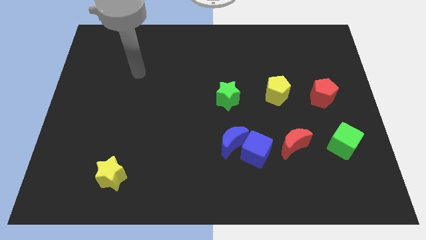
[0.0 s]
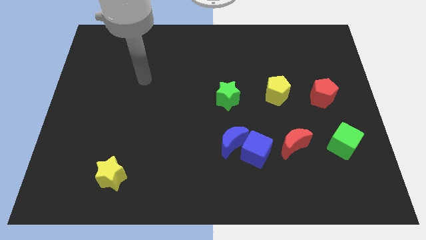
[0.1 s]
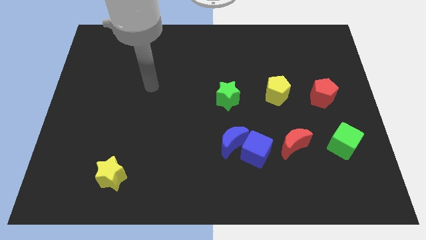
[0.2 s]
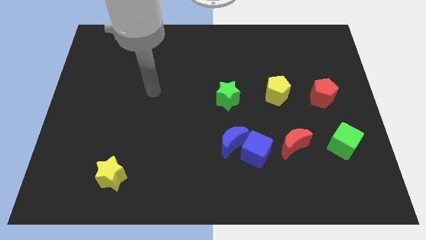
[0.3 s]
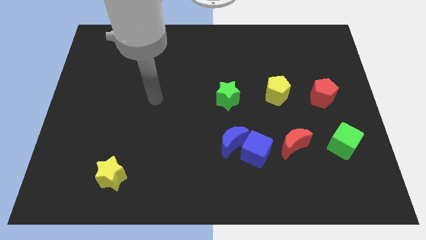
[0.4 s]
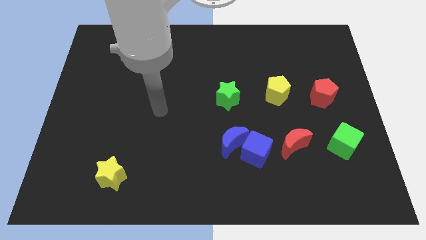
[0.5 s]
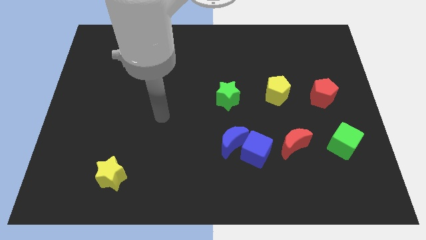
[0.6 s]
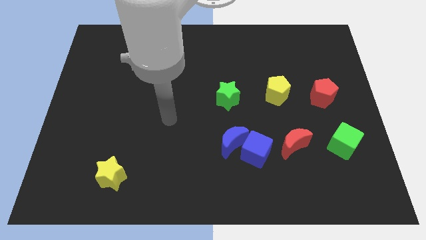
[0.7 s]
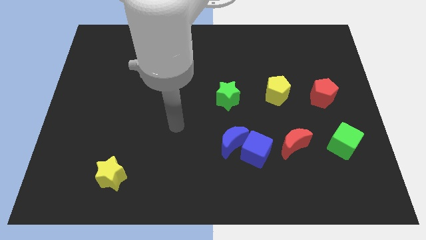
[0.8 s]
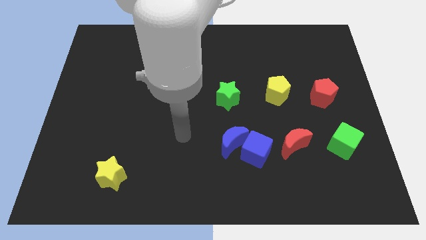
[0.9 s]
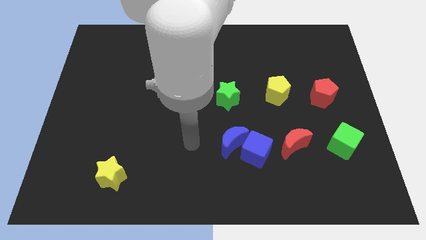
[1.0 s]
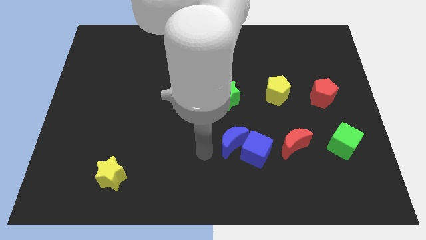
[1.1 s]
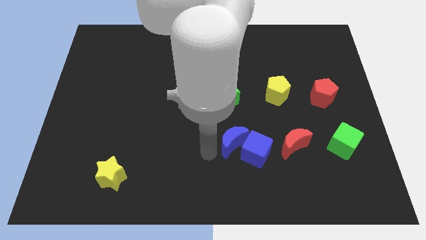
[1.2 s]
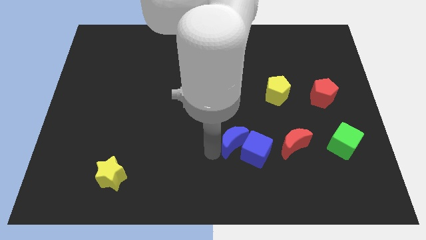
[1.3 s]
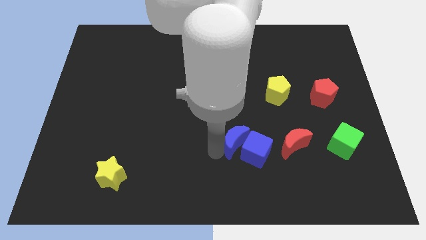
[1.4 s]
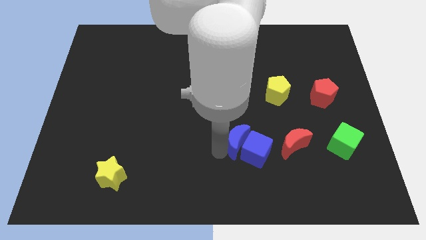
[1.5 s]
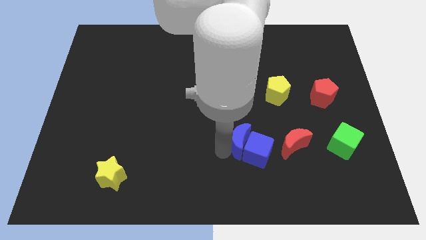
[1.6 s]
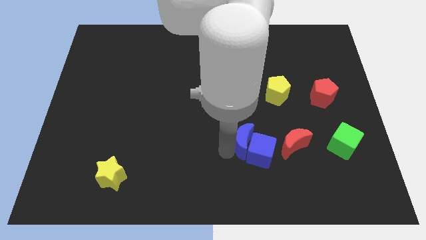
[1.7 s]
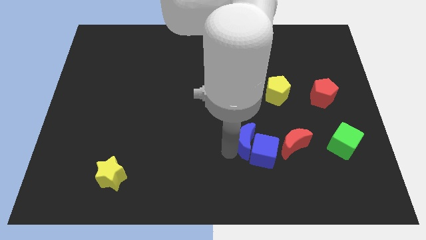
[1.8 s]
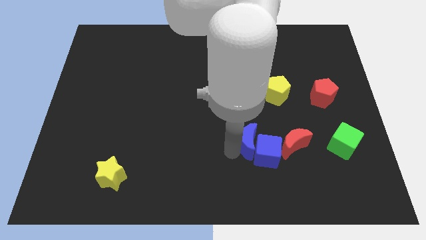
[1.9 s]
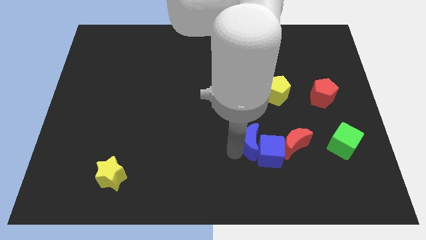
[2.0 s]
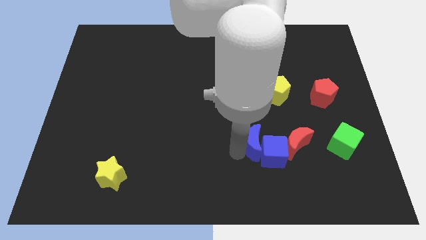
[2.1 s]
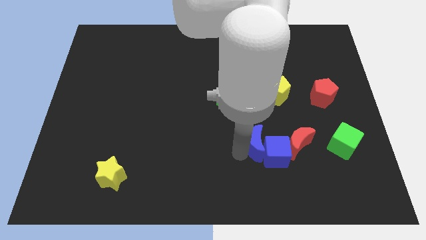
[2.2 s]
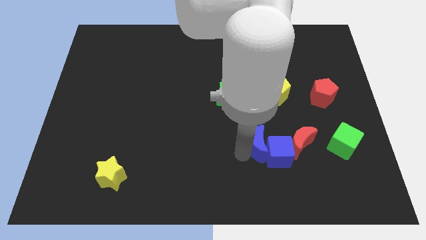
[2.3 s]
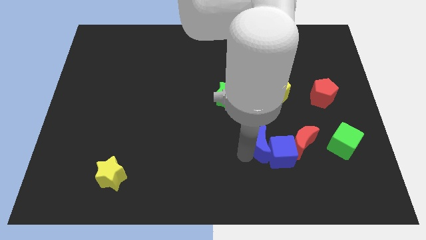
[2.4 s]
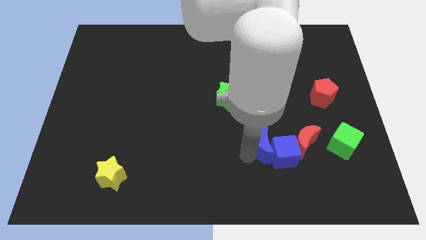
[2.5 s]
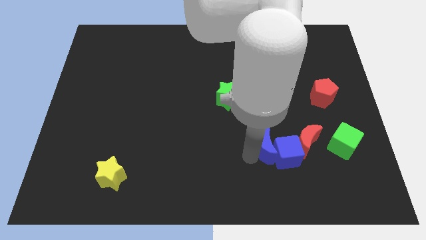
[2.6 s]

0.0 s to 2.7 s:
slide the blue moon right a little bit

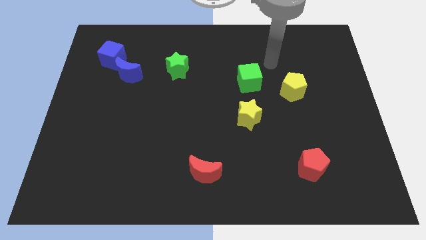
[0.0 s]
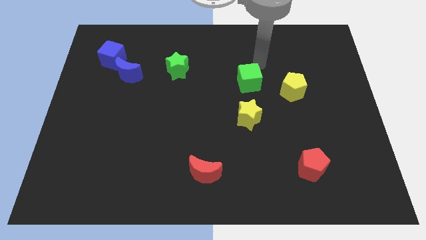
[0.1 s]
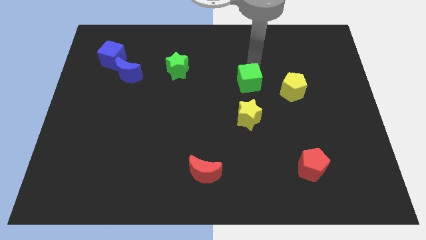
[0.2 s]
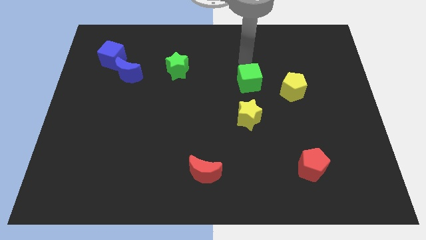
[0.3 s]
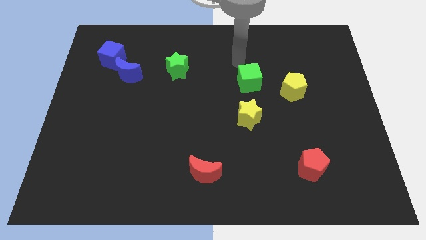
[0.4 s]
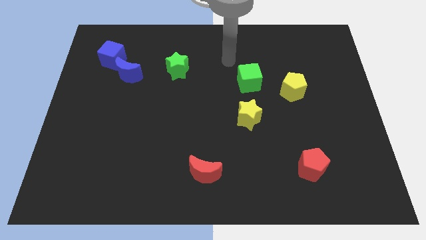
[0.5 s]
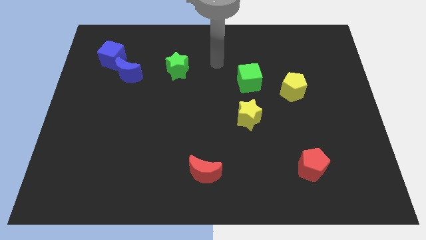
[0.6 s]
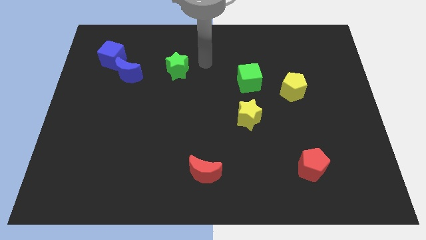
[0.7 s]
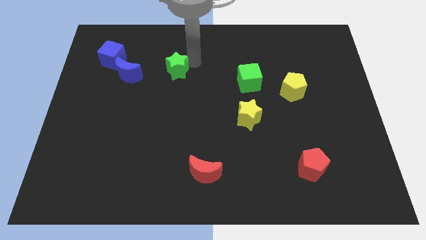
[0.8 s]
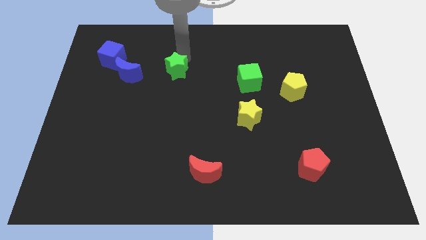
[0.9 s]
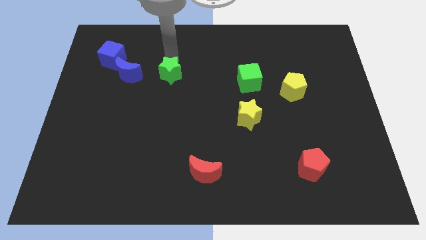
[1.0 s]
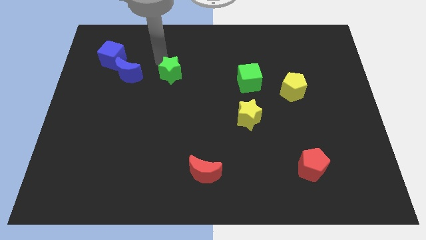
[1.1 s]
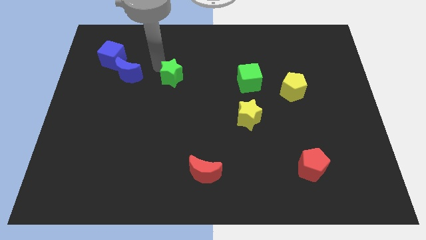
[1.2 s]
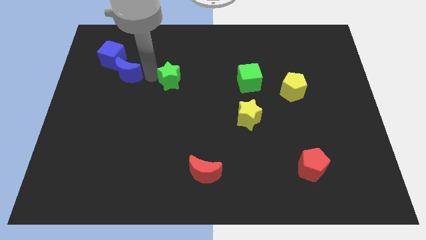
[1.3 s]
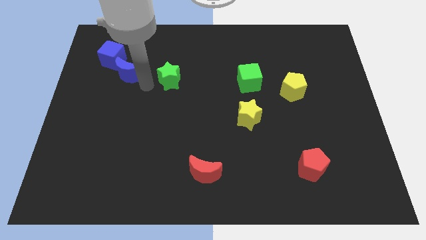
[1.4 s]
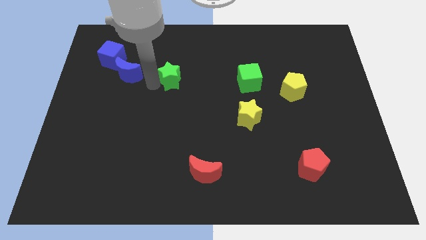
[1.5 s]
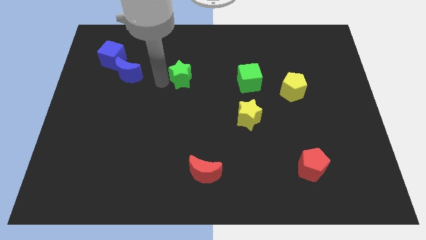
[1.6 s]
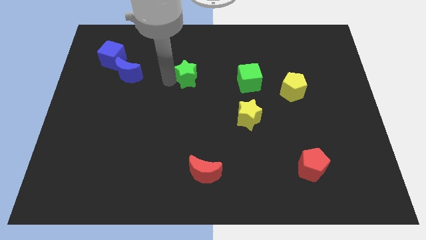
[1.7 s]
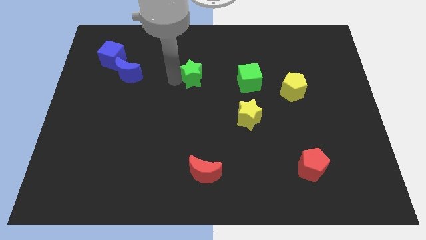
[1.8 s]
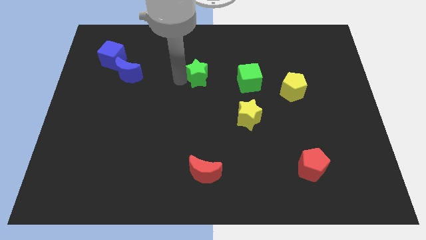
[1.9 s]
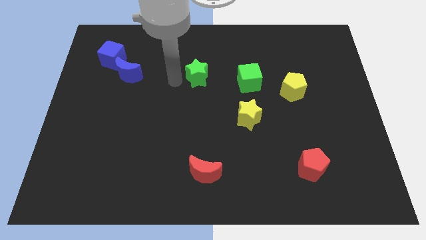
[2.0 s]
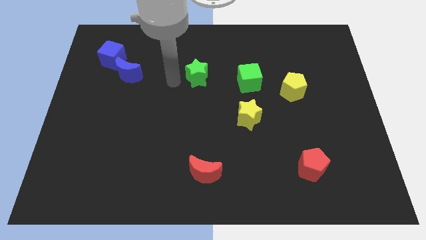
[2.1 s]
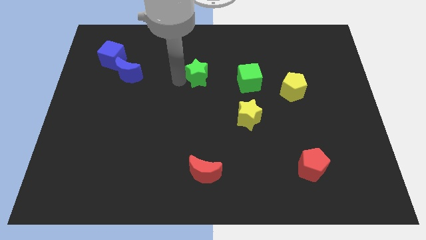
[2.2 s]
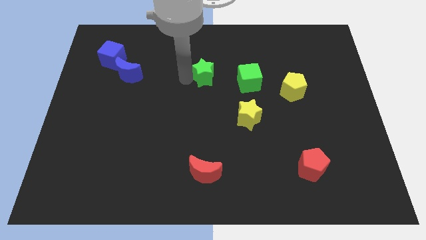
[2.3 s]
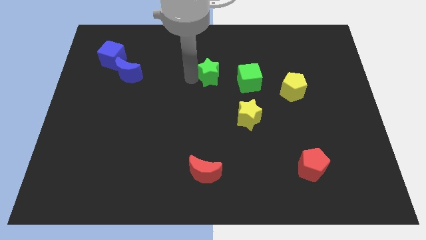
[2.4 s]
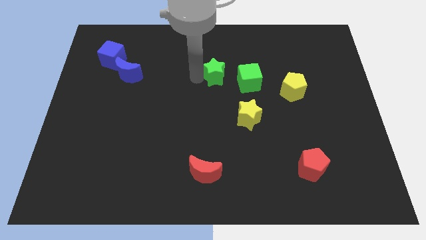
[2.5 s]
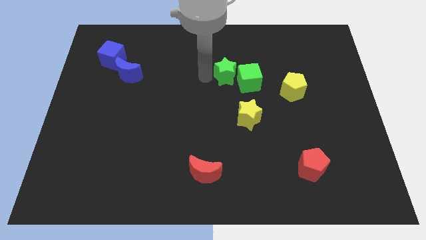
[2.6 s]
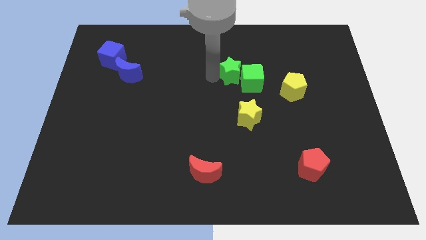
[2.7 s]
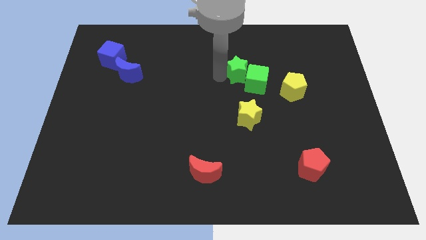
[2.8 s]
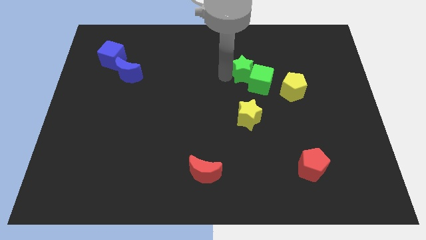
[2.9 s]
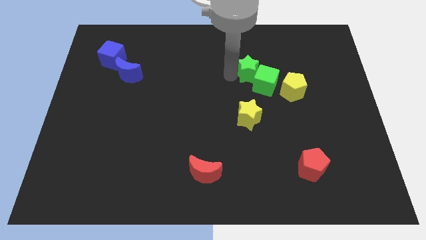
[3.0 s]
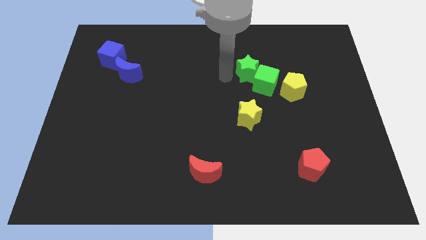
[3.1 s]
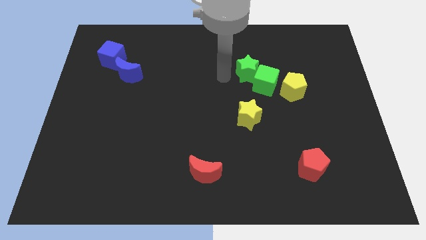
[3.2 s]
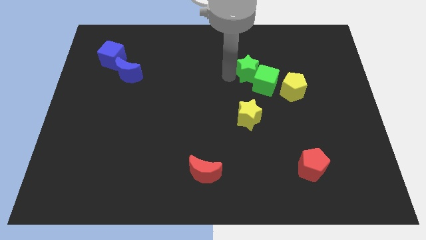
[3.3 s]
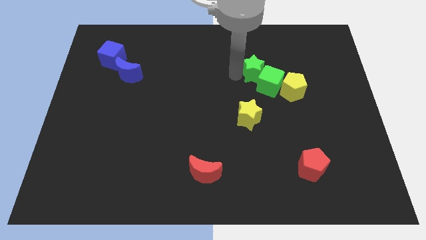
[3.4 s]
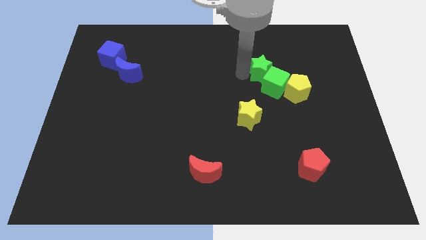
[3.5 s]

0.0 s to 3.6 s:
push the green star right

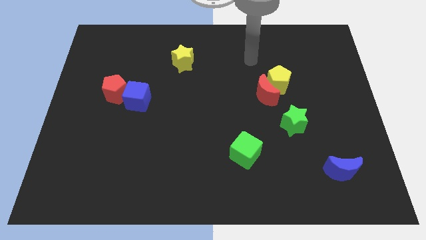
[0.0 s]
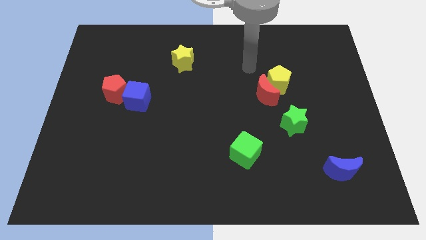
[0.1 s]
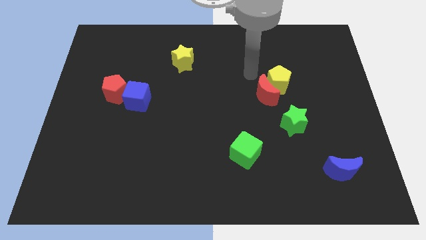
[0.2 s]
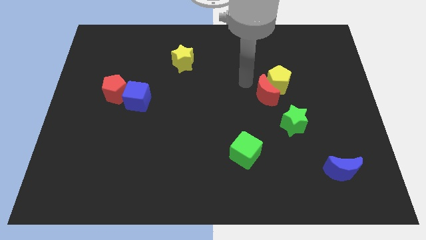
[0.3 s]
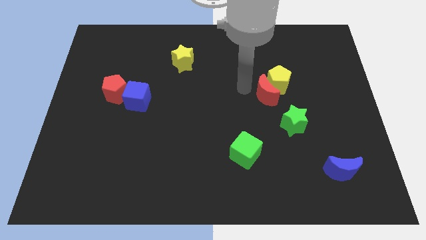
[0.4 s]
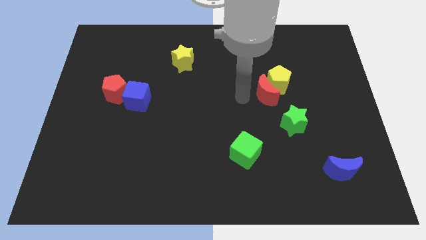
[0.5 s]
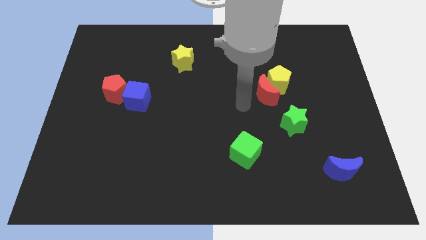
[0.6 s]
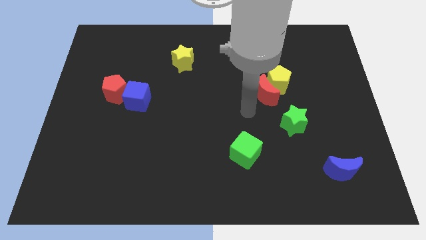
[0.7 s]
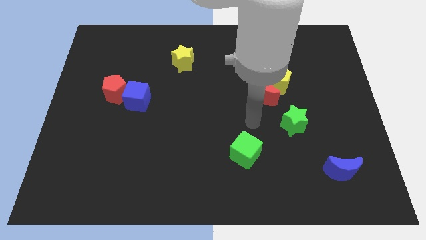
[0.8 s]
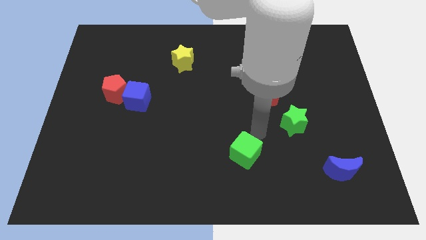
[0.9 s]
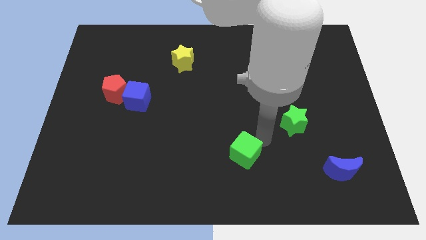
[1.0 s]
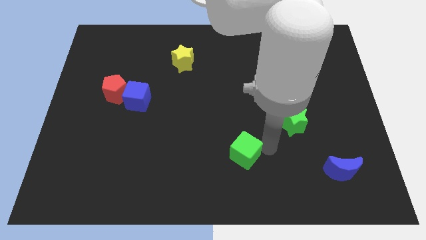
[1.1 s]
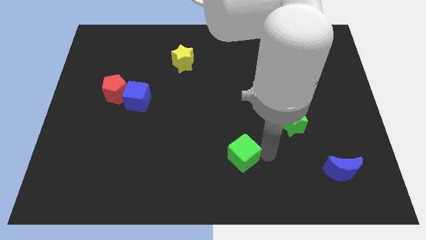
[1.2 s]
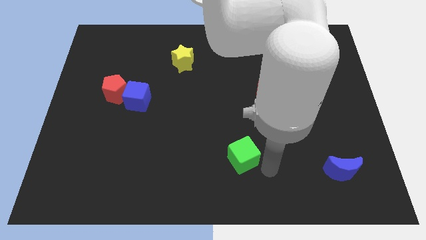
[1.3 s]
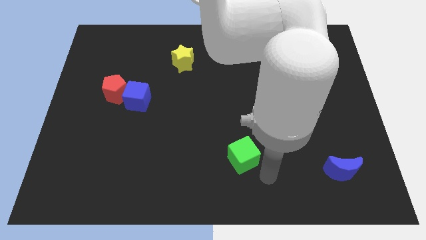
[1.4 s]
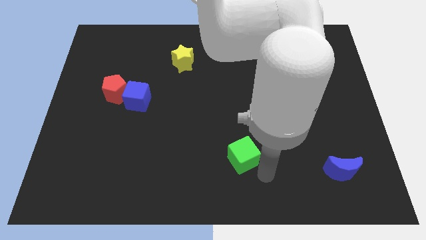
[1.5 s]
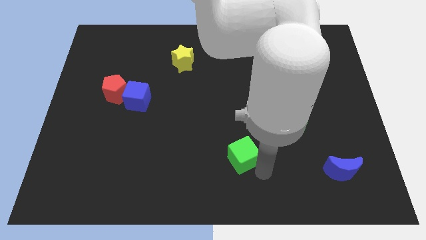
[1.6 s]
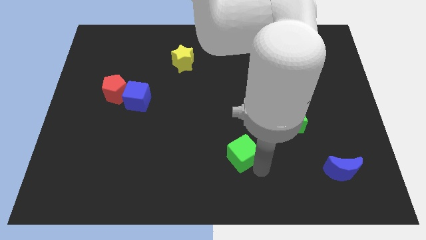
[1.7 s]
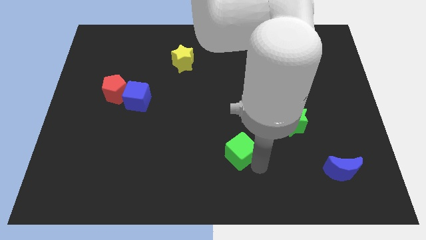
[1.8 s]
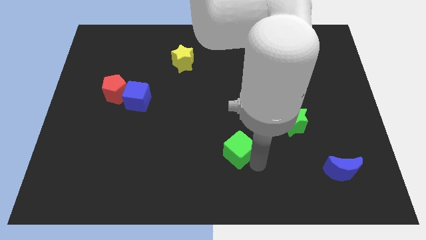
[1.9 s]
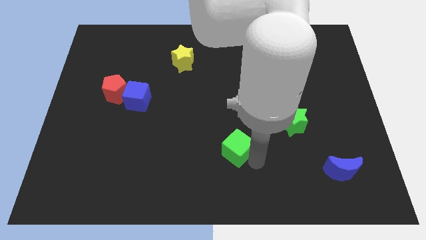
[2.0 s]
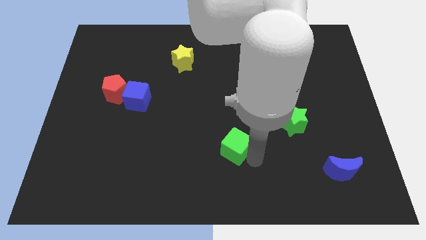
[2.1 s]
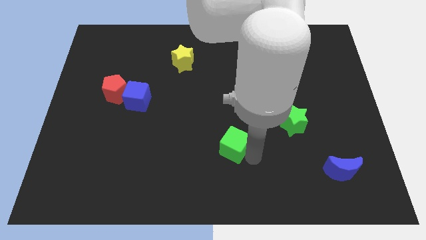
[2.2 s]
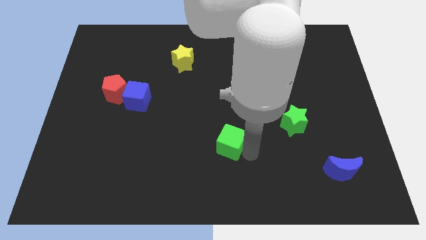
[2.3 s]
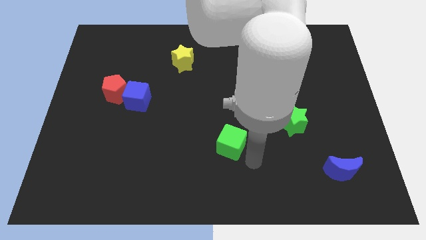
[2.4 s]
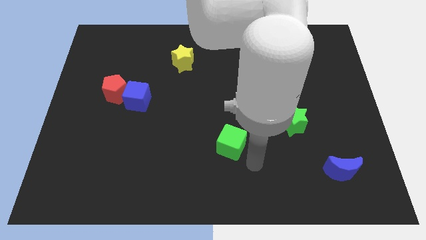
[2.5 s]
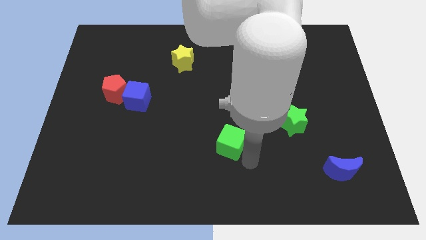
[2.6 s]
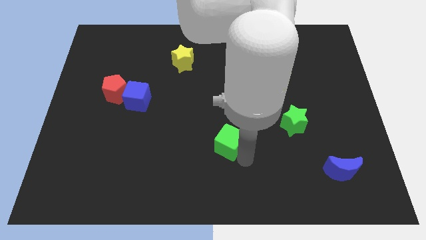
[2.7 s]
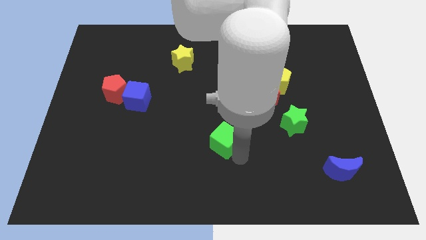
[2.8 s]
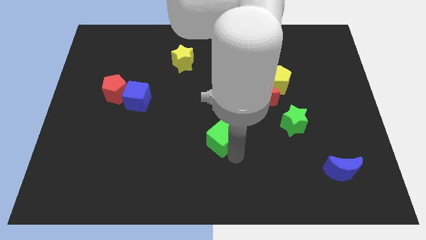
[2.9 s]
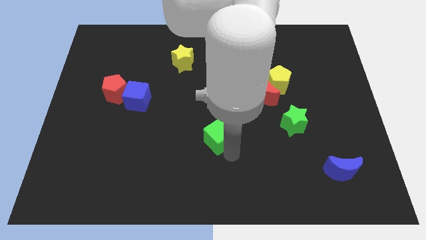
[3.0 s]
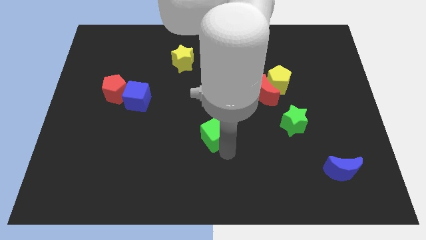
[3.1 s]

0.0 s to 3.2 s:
slightly slide the green cube upwards and left
